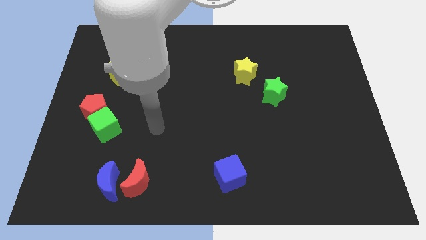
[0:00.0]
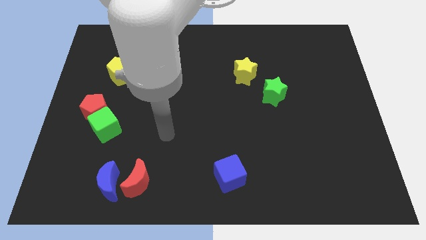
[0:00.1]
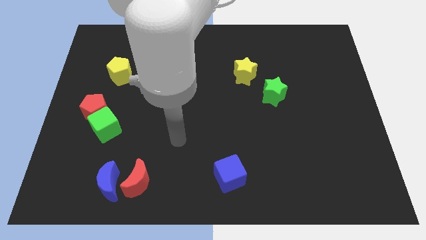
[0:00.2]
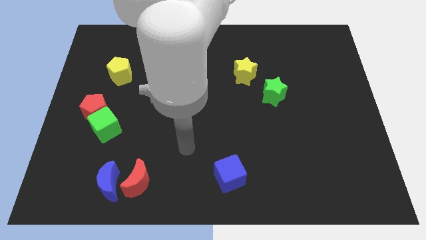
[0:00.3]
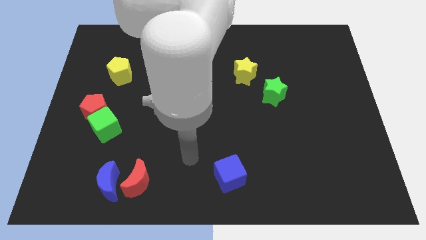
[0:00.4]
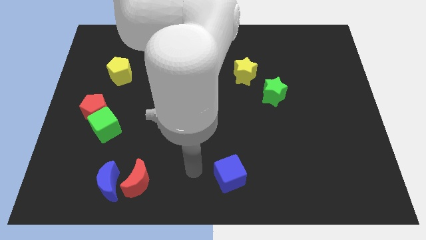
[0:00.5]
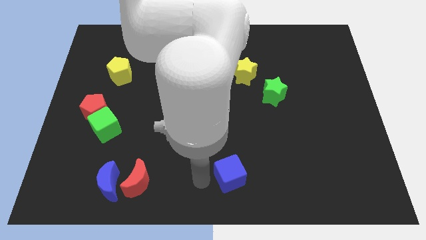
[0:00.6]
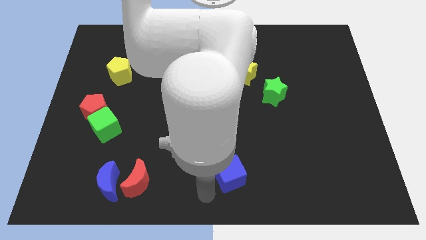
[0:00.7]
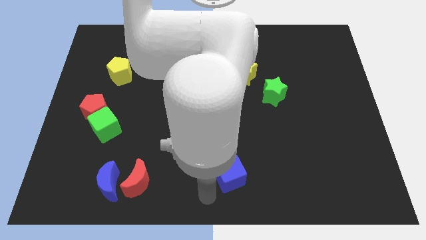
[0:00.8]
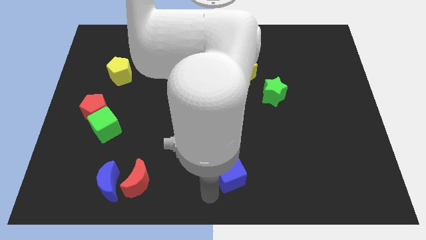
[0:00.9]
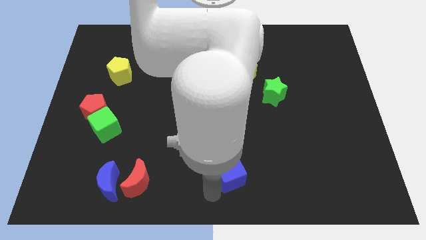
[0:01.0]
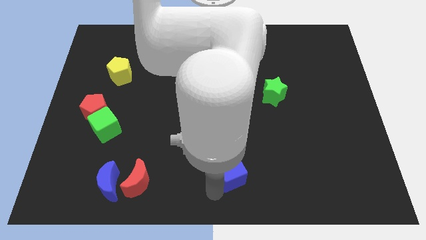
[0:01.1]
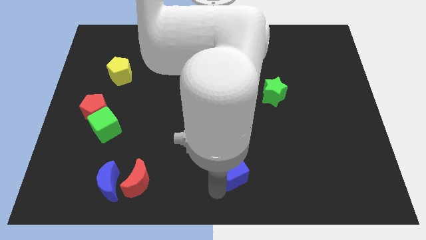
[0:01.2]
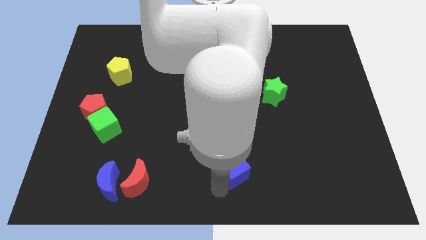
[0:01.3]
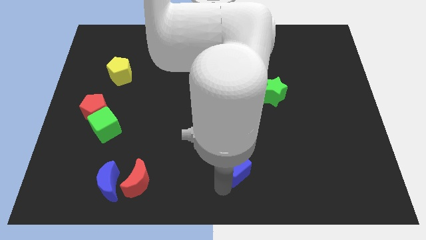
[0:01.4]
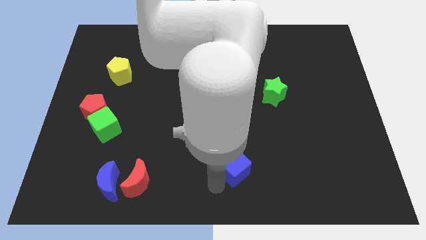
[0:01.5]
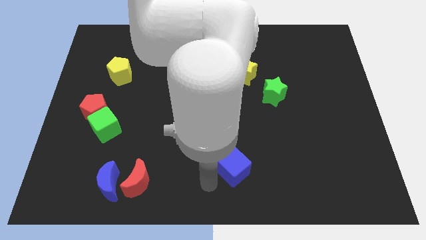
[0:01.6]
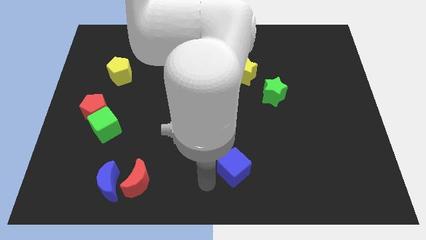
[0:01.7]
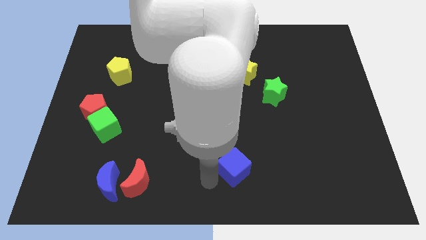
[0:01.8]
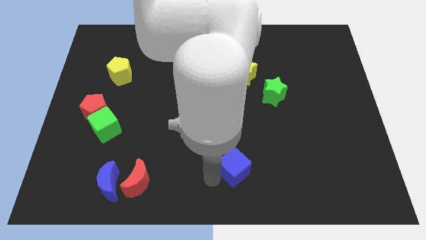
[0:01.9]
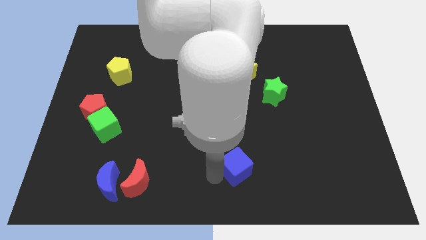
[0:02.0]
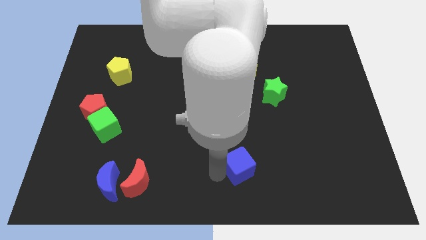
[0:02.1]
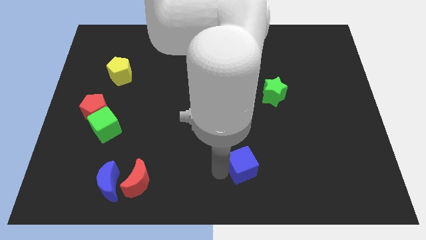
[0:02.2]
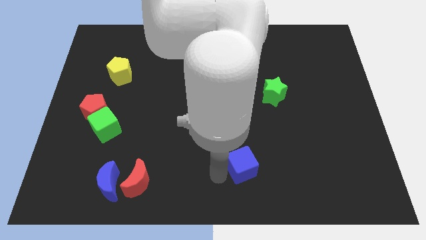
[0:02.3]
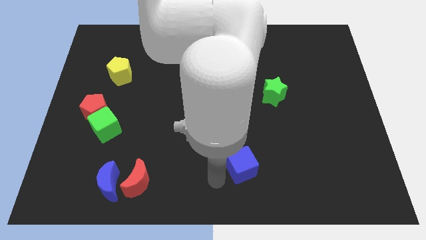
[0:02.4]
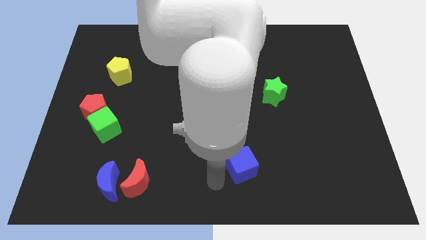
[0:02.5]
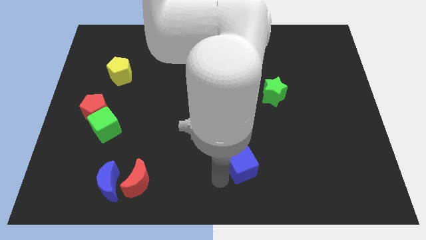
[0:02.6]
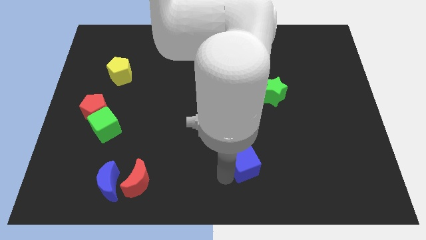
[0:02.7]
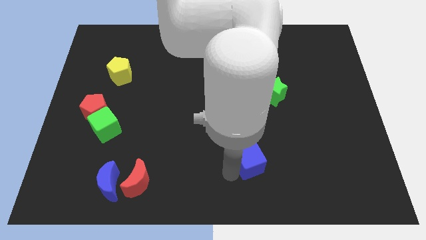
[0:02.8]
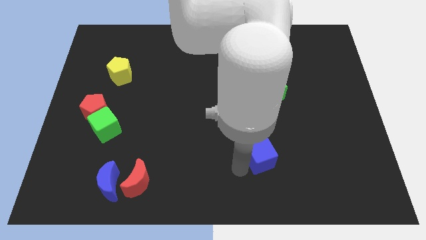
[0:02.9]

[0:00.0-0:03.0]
slightly move the blue cube upwards and then to the right

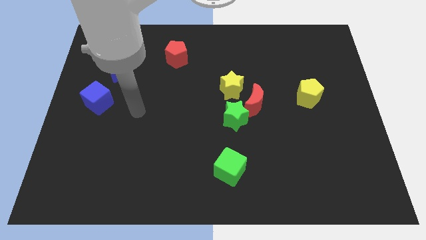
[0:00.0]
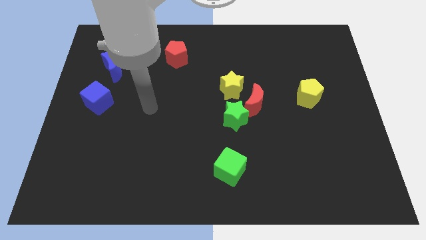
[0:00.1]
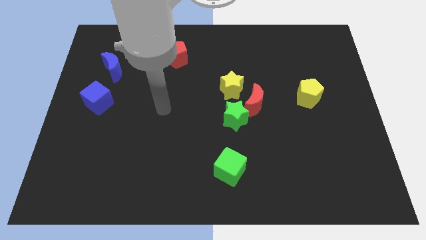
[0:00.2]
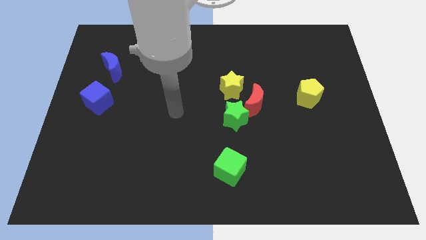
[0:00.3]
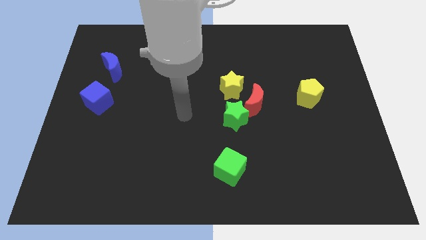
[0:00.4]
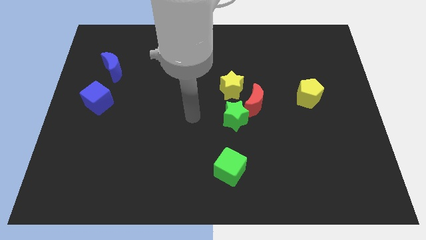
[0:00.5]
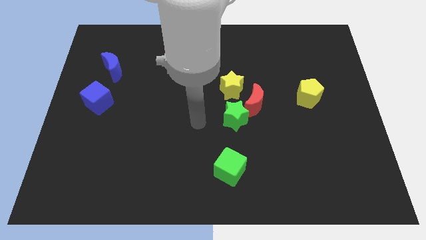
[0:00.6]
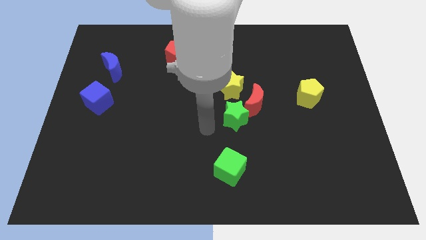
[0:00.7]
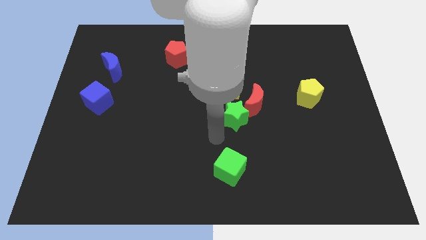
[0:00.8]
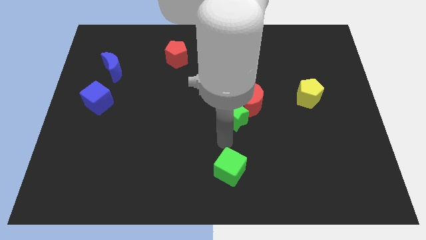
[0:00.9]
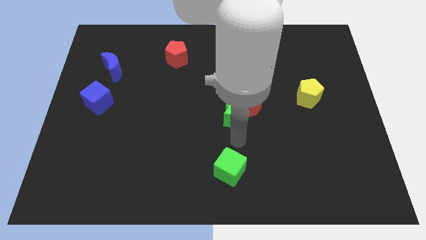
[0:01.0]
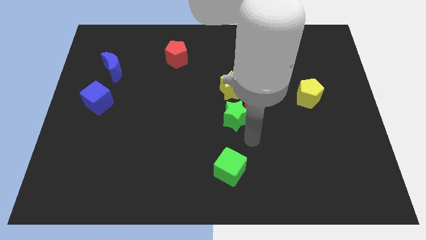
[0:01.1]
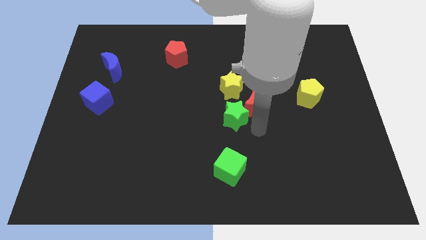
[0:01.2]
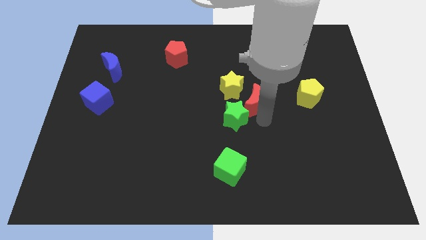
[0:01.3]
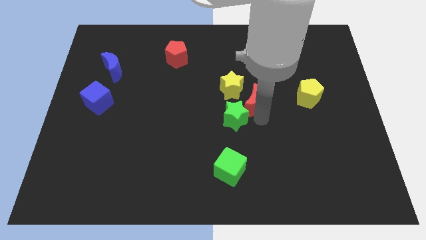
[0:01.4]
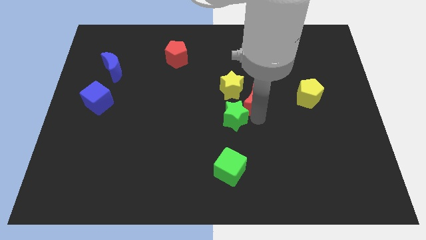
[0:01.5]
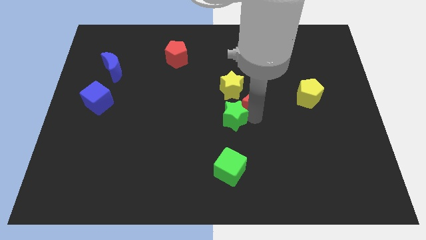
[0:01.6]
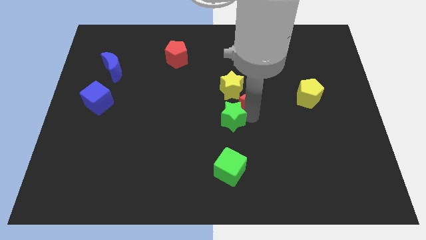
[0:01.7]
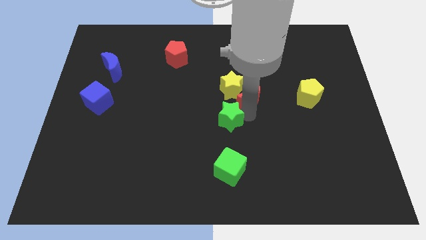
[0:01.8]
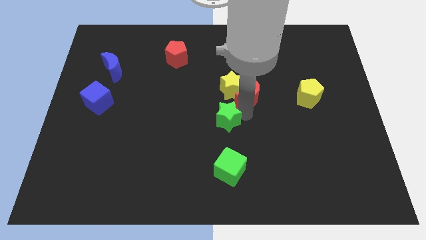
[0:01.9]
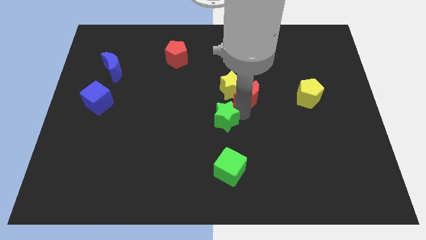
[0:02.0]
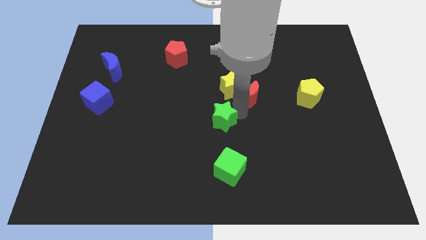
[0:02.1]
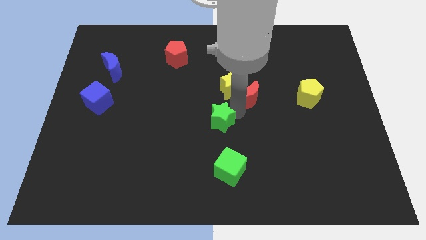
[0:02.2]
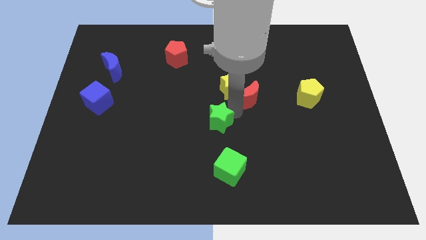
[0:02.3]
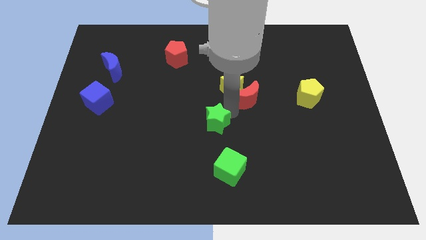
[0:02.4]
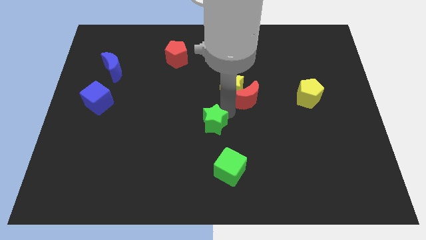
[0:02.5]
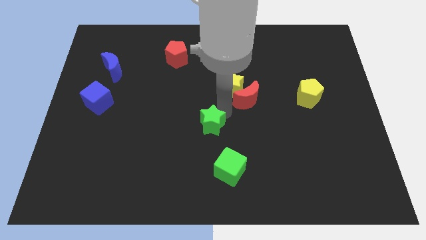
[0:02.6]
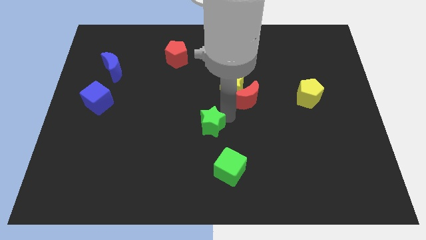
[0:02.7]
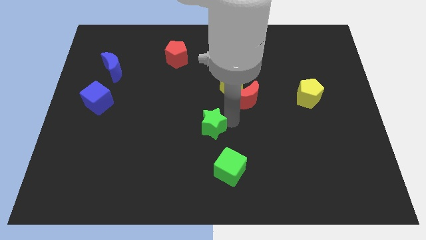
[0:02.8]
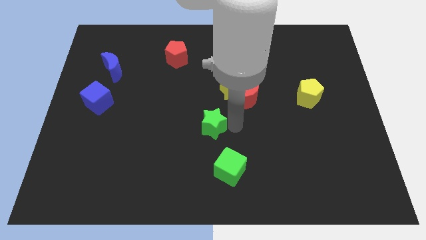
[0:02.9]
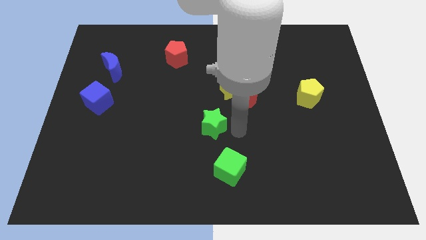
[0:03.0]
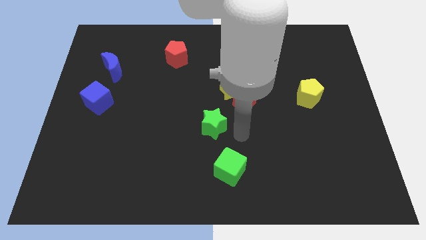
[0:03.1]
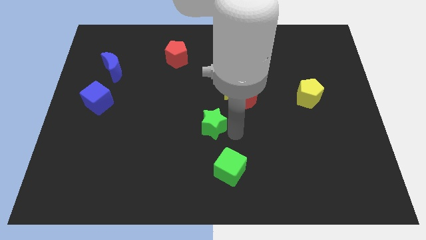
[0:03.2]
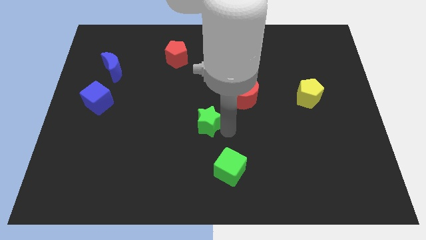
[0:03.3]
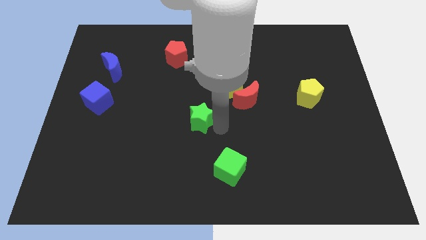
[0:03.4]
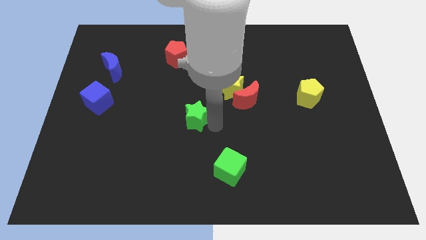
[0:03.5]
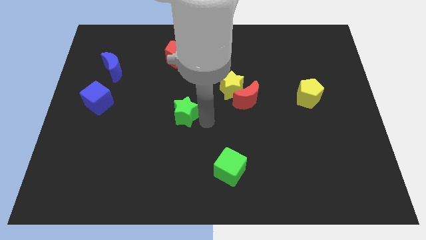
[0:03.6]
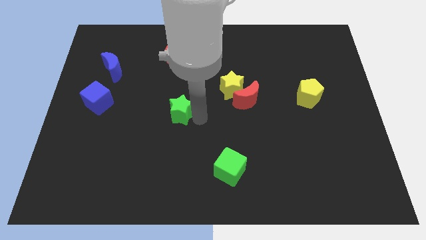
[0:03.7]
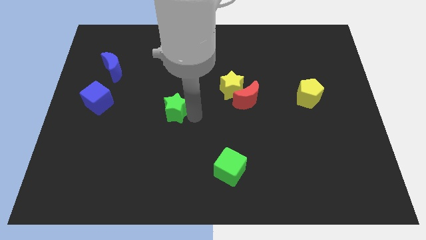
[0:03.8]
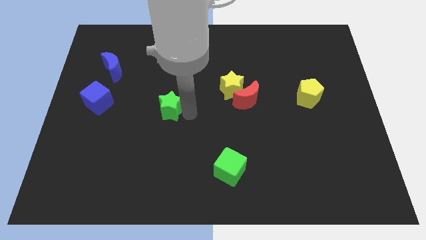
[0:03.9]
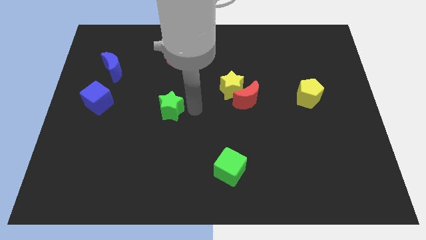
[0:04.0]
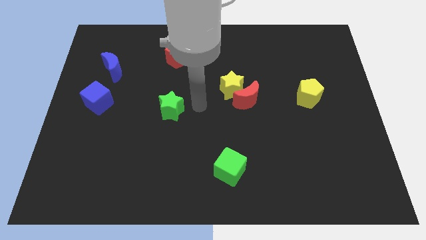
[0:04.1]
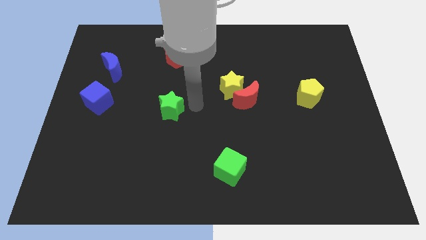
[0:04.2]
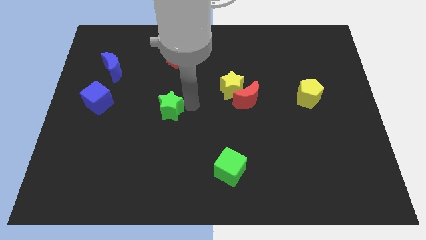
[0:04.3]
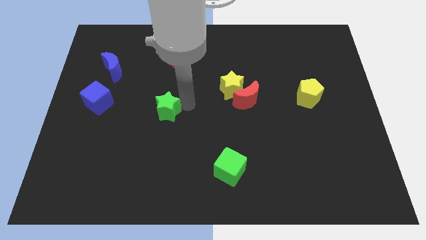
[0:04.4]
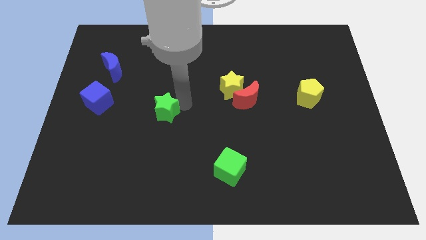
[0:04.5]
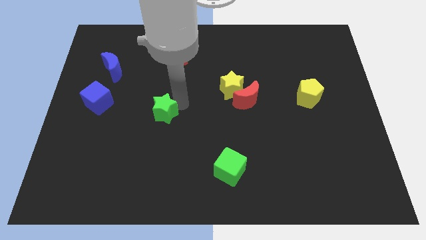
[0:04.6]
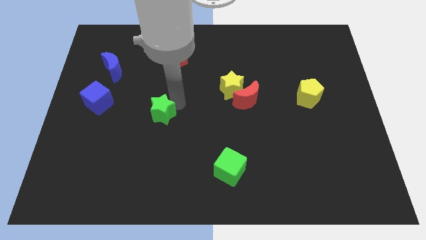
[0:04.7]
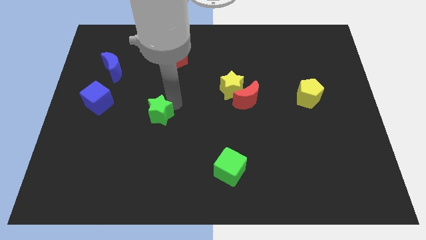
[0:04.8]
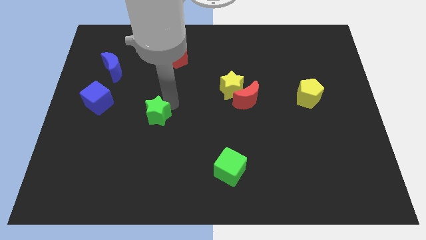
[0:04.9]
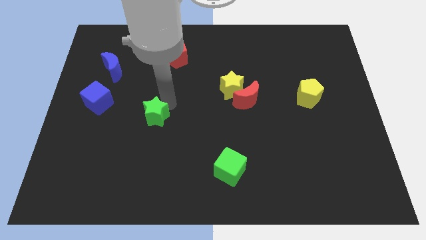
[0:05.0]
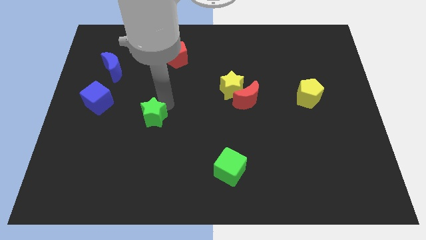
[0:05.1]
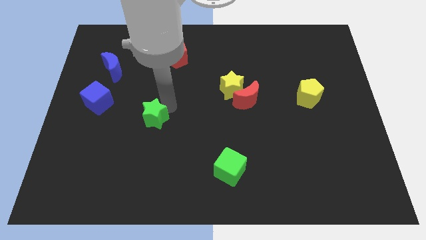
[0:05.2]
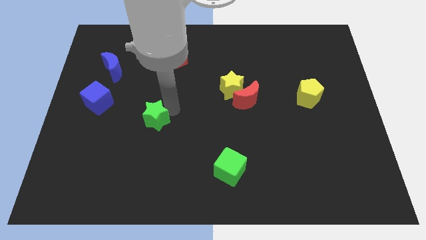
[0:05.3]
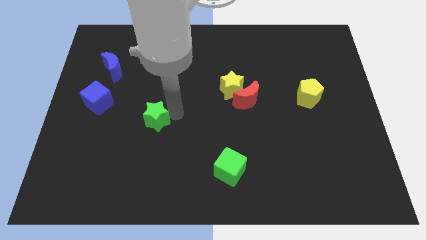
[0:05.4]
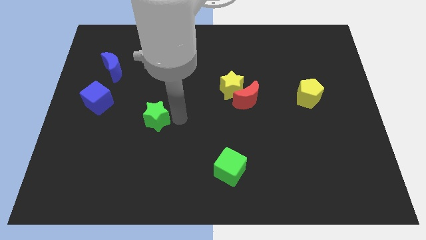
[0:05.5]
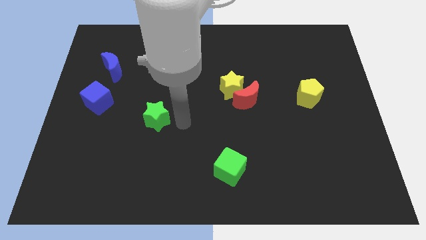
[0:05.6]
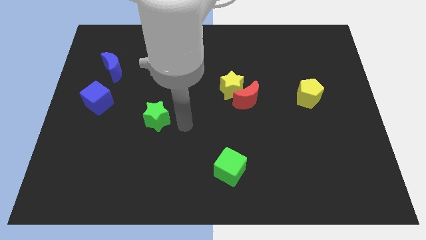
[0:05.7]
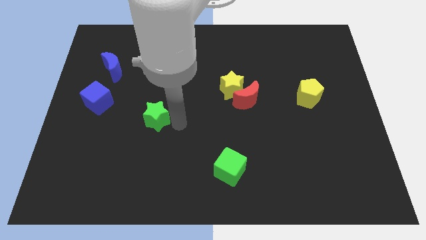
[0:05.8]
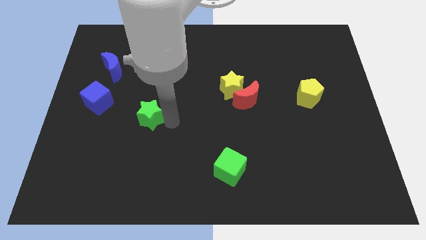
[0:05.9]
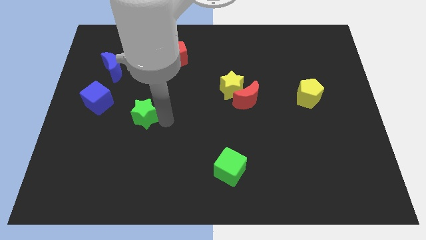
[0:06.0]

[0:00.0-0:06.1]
push the green star left
